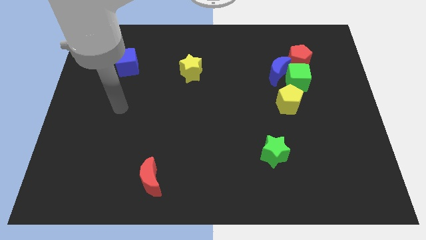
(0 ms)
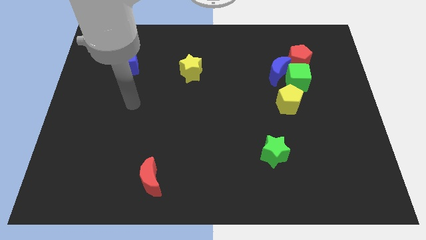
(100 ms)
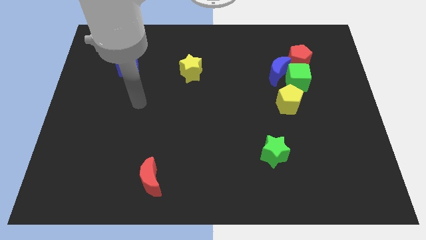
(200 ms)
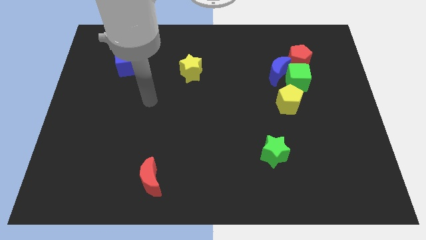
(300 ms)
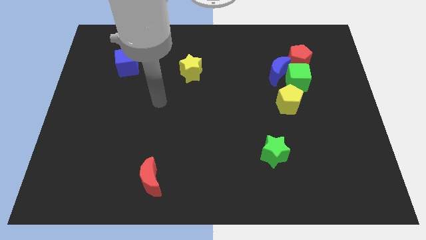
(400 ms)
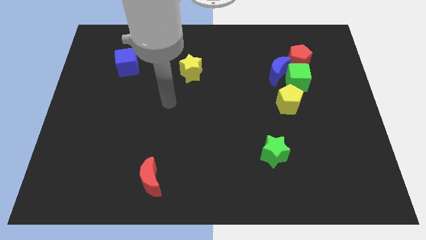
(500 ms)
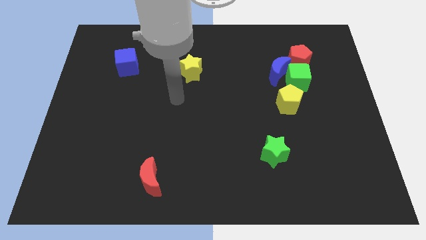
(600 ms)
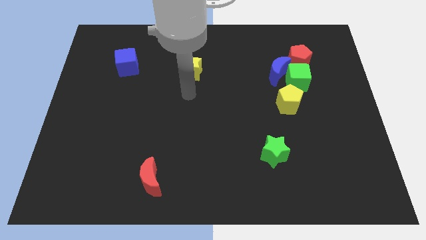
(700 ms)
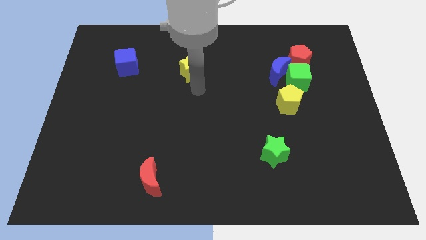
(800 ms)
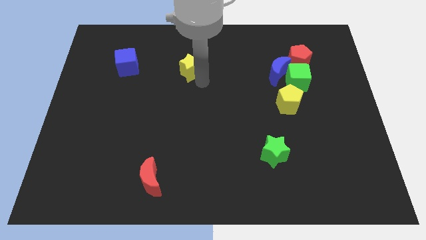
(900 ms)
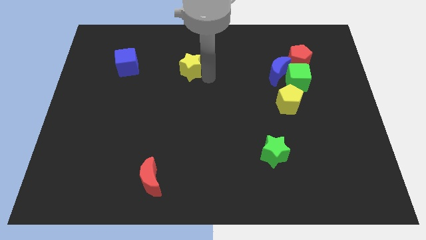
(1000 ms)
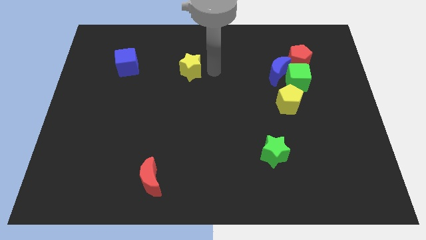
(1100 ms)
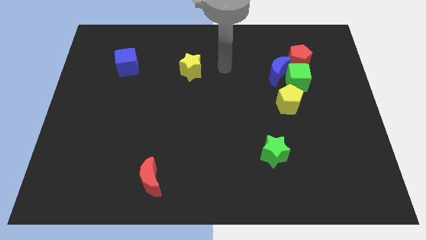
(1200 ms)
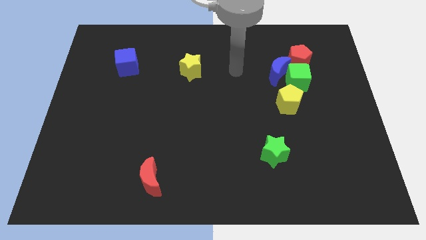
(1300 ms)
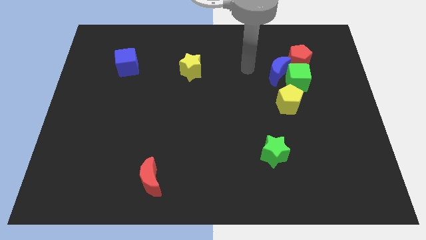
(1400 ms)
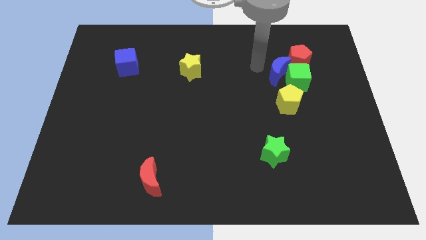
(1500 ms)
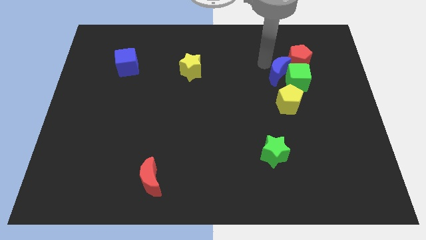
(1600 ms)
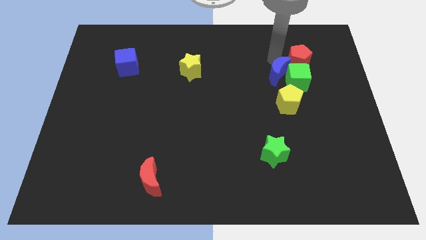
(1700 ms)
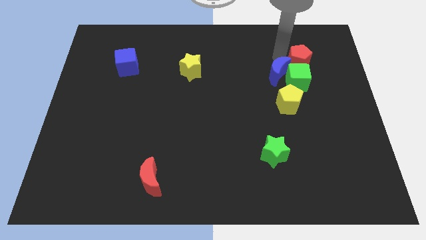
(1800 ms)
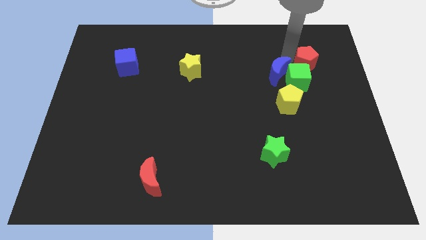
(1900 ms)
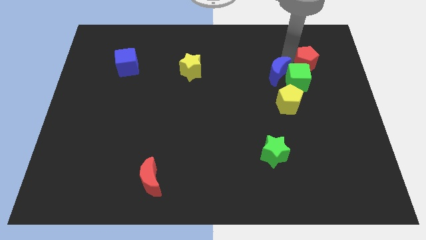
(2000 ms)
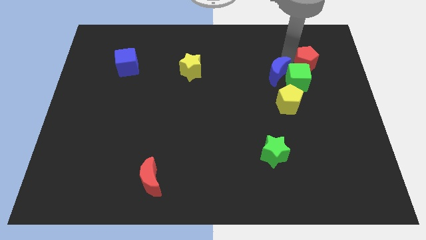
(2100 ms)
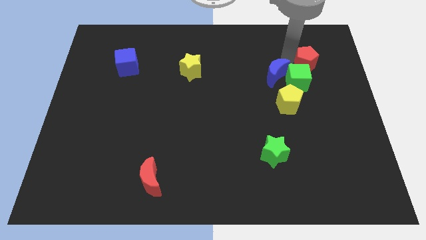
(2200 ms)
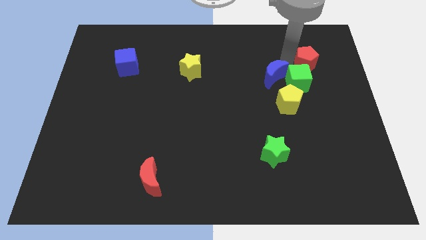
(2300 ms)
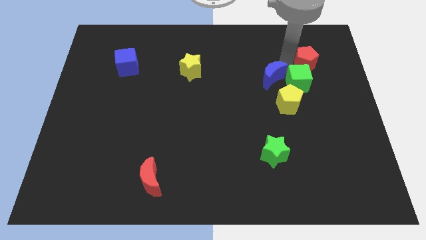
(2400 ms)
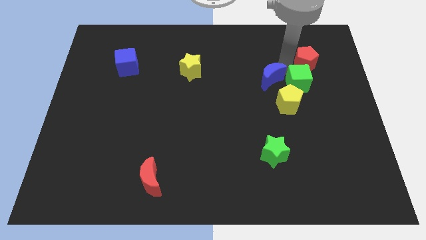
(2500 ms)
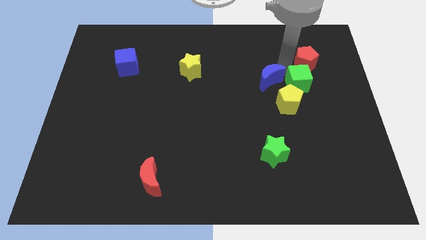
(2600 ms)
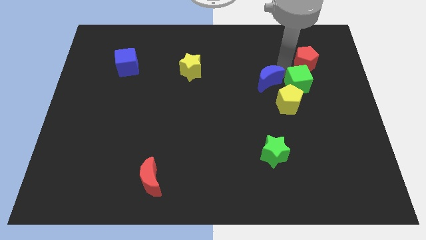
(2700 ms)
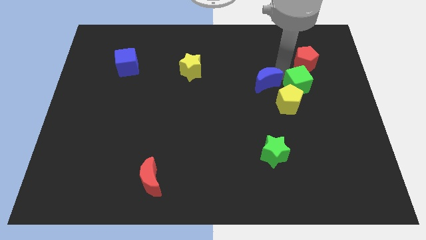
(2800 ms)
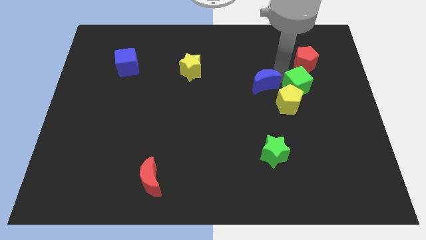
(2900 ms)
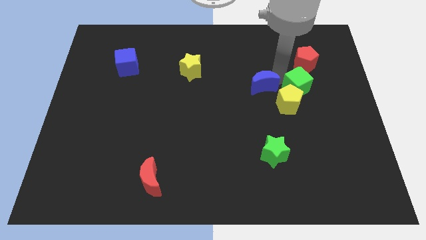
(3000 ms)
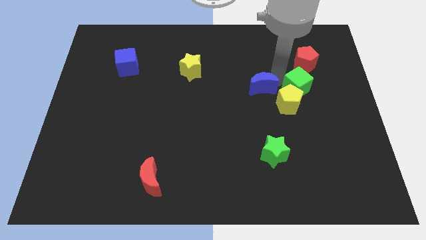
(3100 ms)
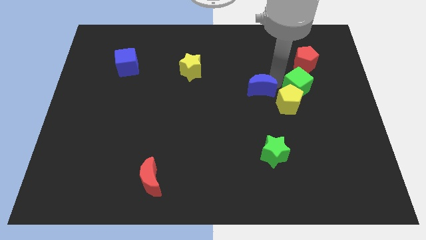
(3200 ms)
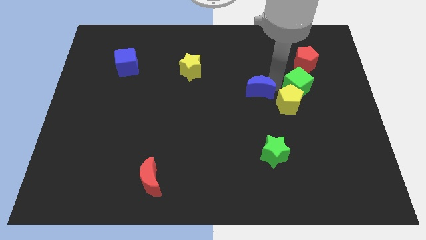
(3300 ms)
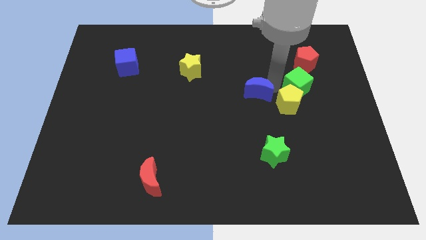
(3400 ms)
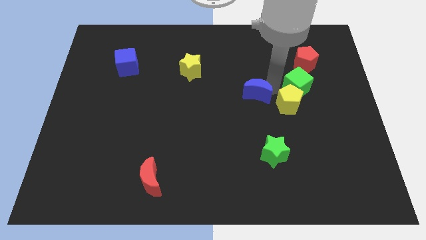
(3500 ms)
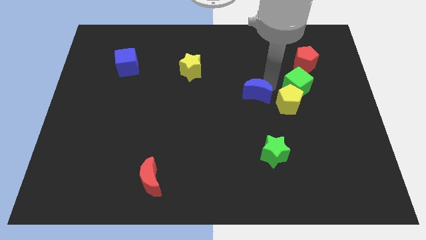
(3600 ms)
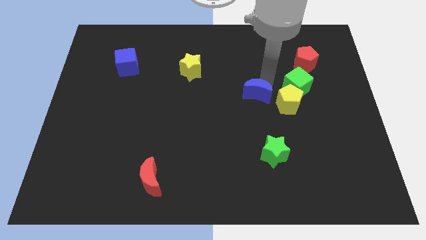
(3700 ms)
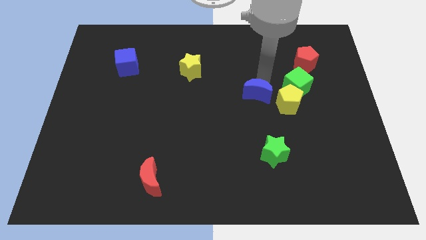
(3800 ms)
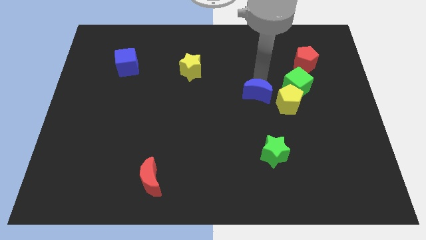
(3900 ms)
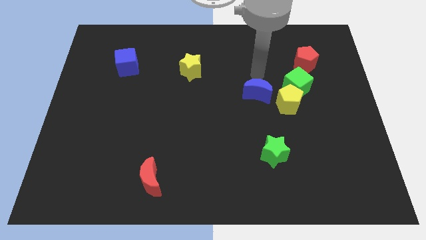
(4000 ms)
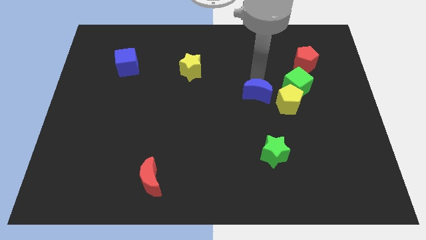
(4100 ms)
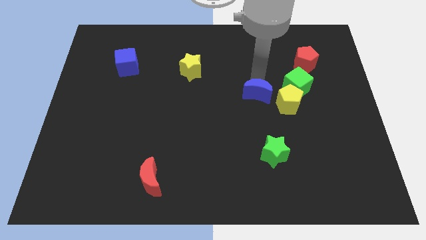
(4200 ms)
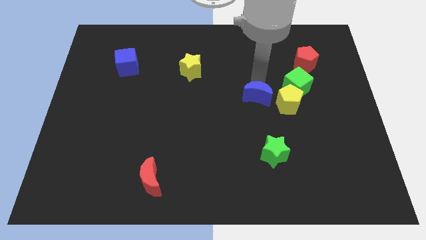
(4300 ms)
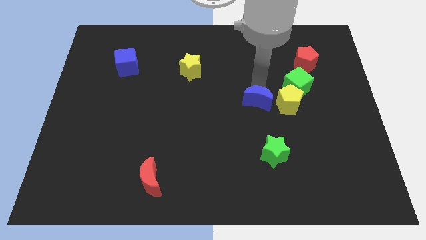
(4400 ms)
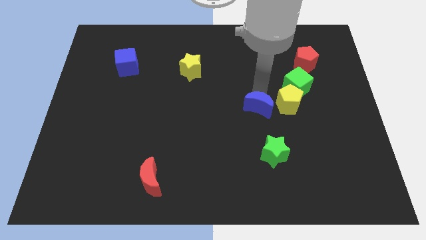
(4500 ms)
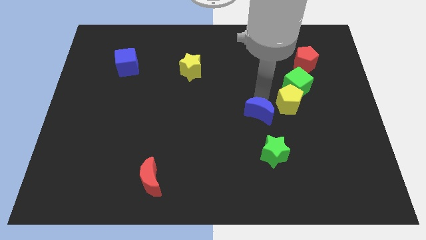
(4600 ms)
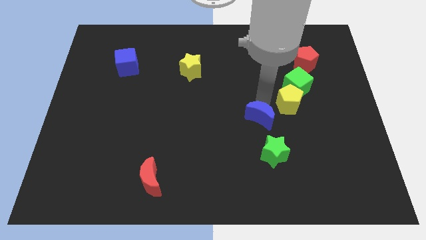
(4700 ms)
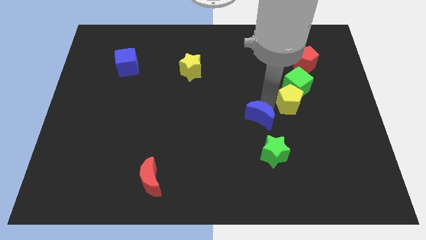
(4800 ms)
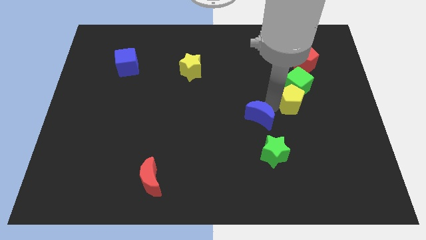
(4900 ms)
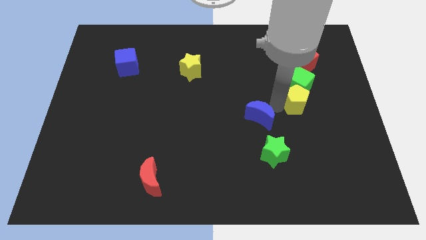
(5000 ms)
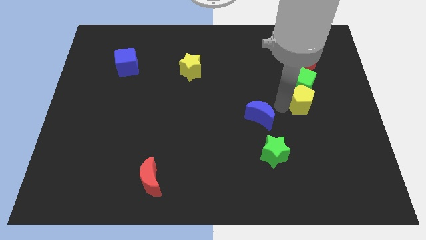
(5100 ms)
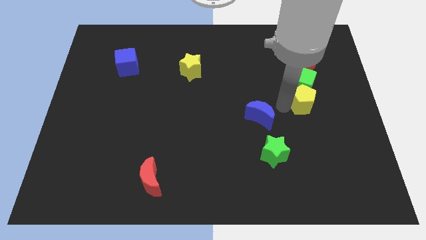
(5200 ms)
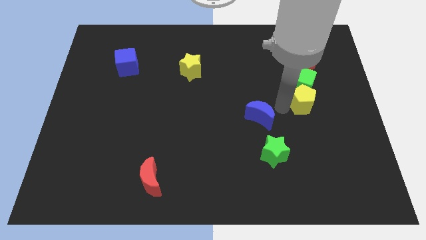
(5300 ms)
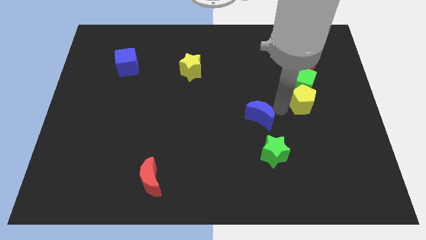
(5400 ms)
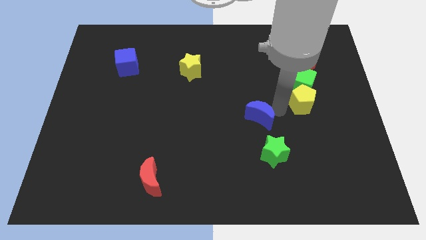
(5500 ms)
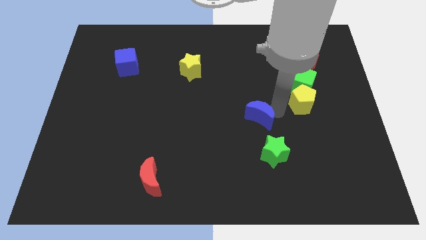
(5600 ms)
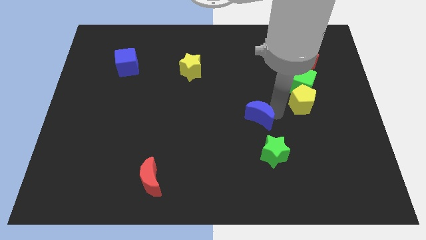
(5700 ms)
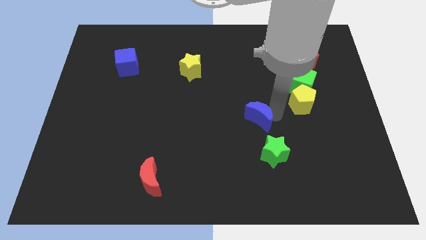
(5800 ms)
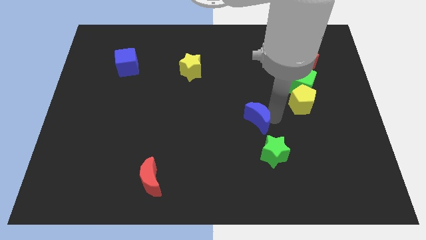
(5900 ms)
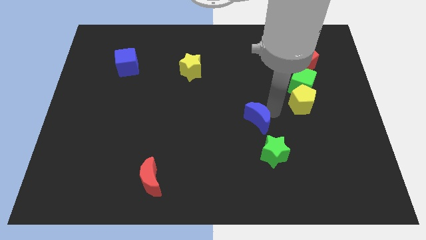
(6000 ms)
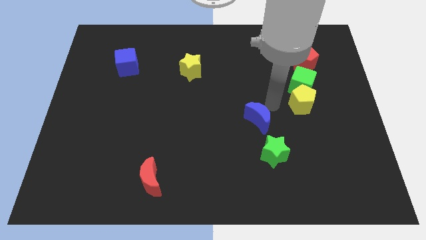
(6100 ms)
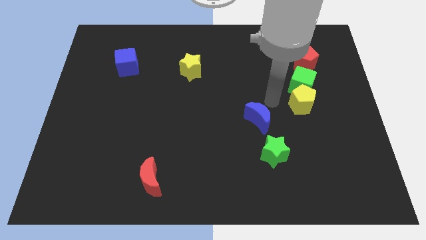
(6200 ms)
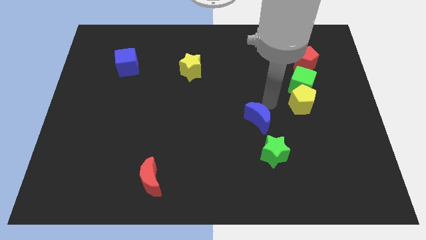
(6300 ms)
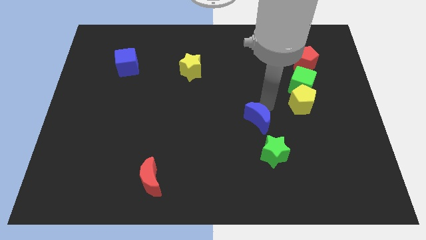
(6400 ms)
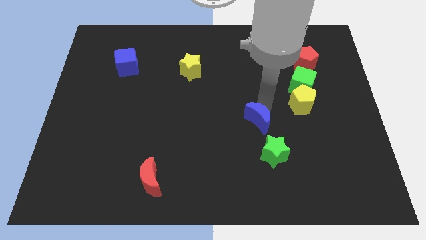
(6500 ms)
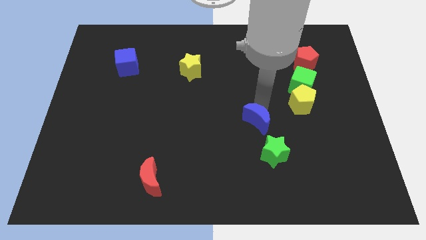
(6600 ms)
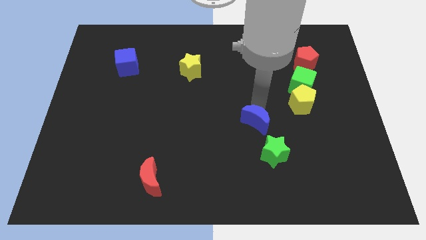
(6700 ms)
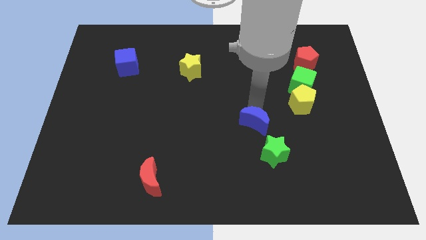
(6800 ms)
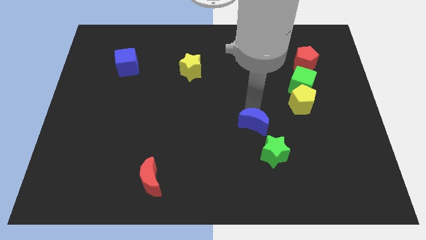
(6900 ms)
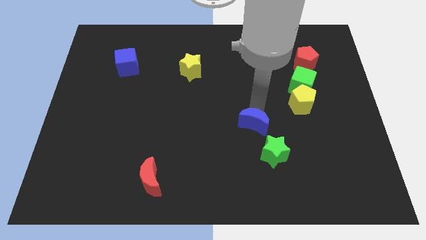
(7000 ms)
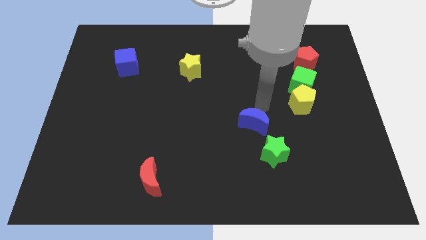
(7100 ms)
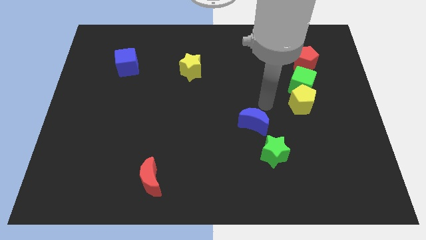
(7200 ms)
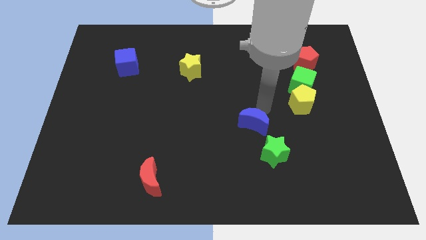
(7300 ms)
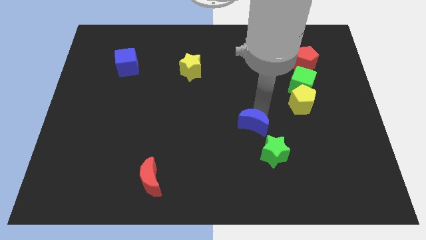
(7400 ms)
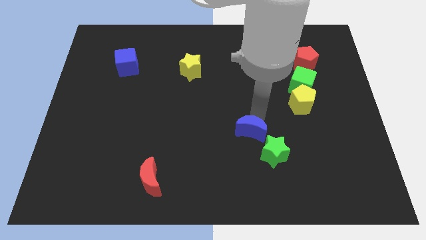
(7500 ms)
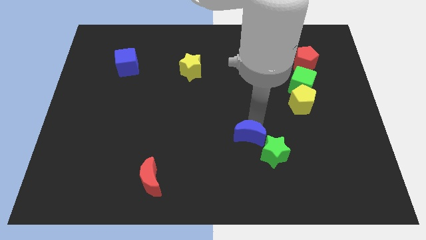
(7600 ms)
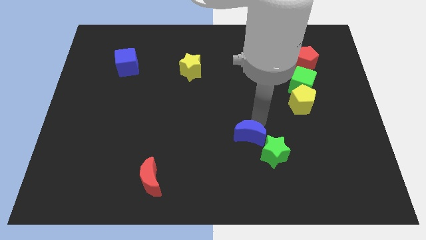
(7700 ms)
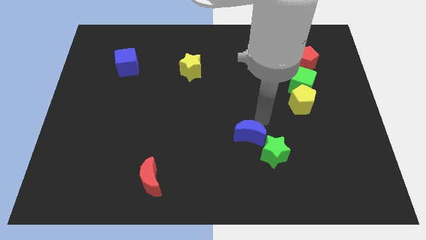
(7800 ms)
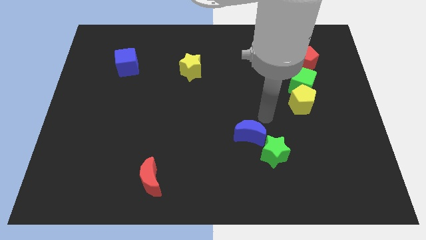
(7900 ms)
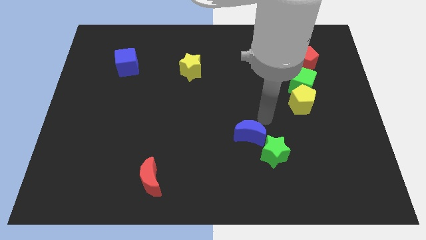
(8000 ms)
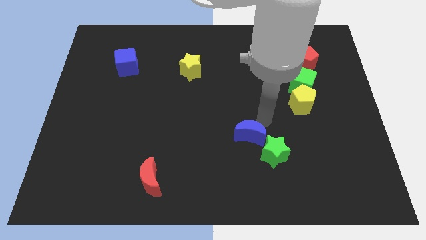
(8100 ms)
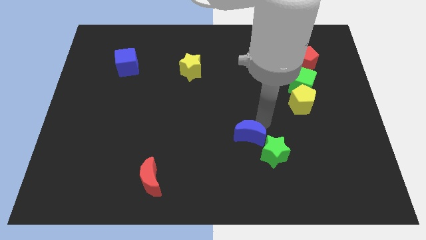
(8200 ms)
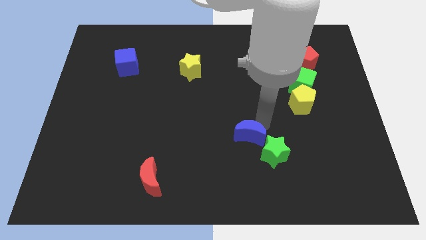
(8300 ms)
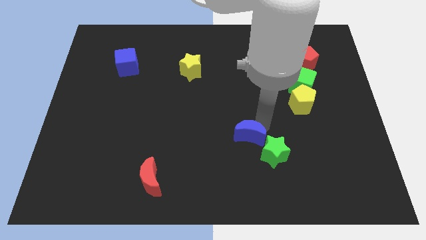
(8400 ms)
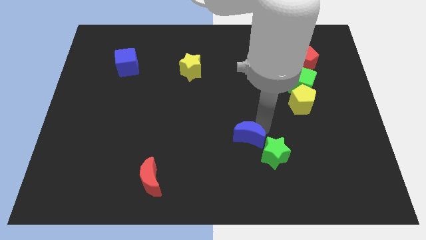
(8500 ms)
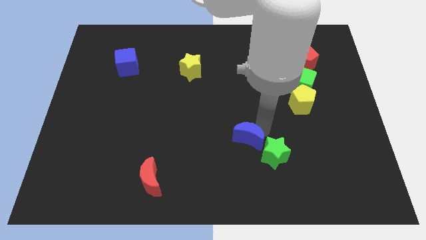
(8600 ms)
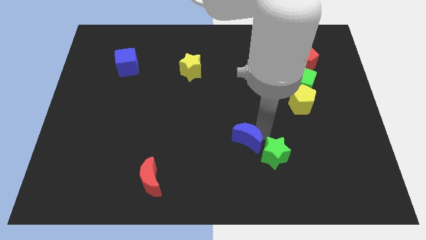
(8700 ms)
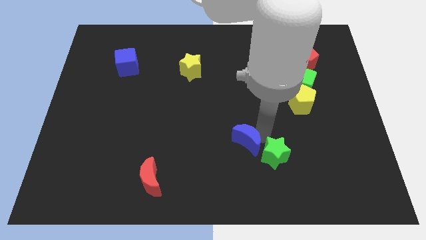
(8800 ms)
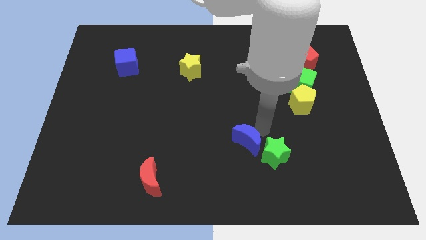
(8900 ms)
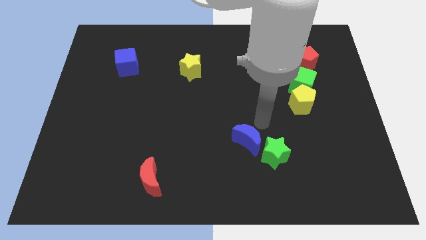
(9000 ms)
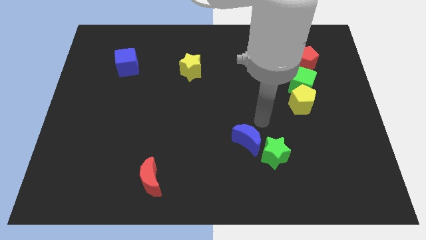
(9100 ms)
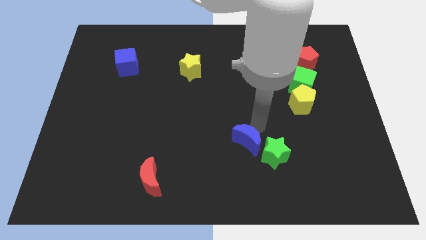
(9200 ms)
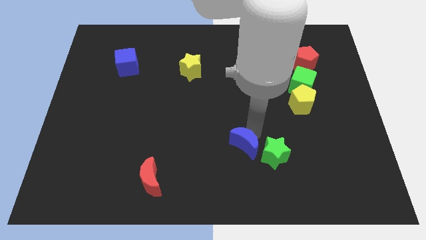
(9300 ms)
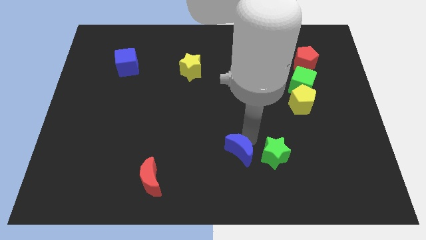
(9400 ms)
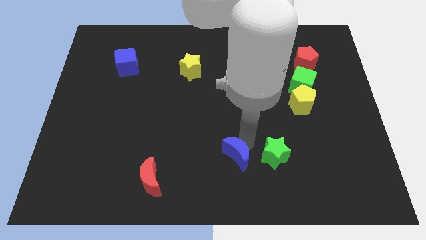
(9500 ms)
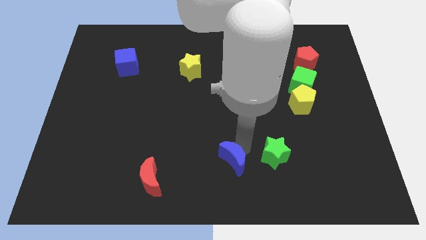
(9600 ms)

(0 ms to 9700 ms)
slide the blue moon to the bottom side
